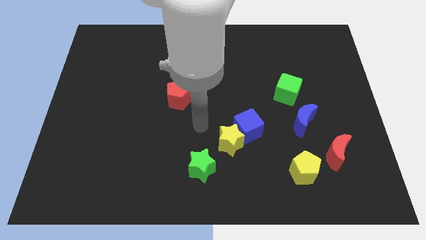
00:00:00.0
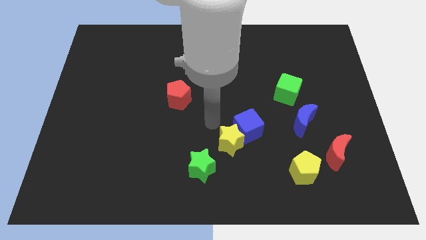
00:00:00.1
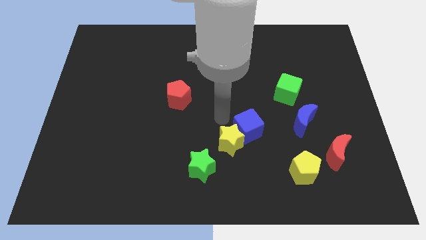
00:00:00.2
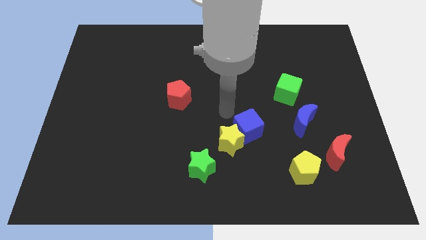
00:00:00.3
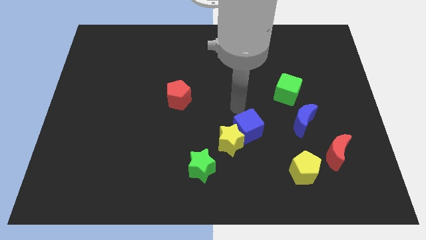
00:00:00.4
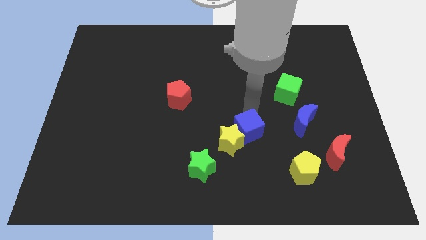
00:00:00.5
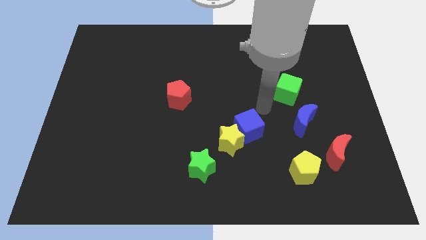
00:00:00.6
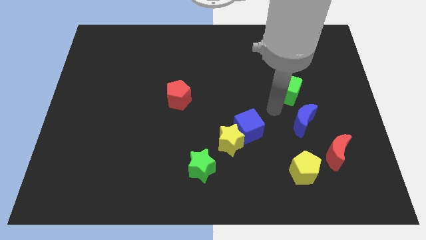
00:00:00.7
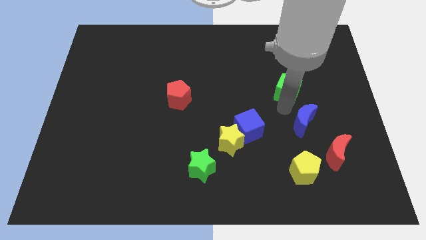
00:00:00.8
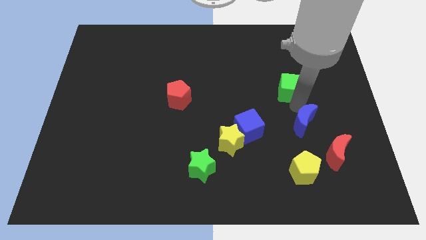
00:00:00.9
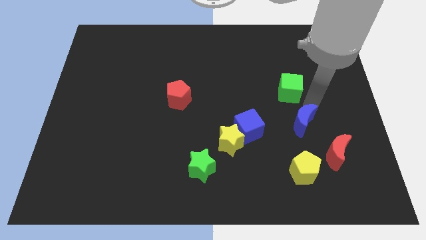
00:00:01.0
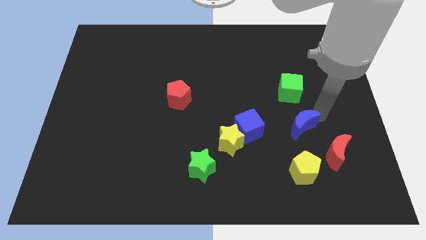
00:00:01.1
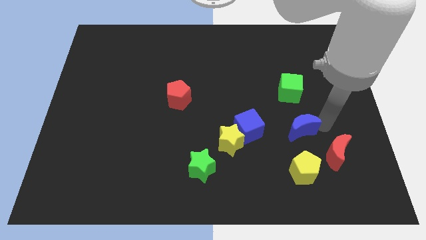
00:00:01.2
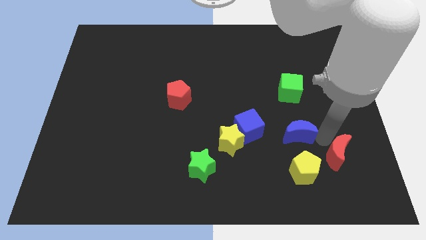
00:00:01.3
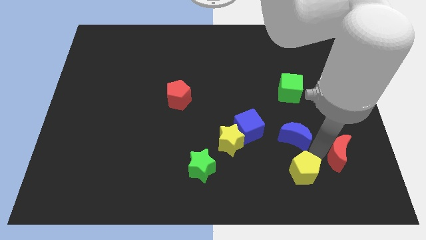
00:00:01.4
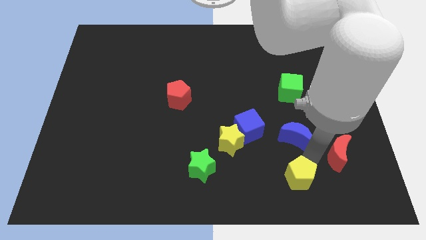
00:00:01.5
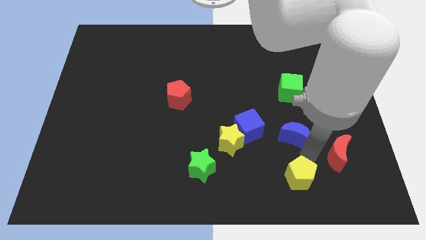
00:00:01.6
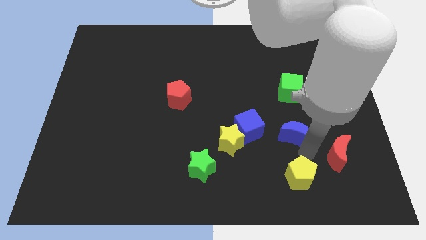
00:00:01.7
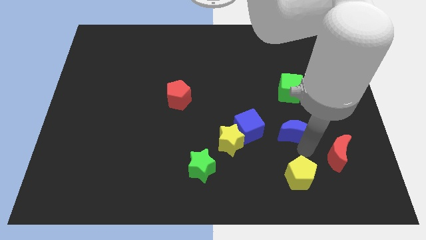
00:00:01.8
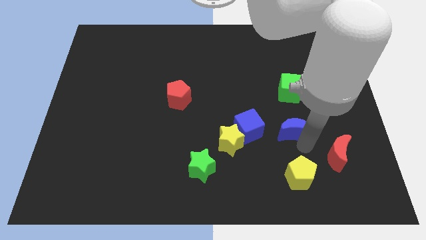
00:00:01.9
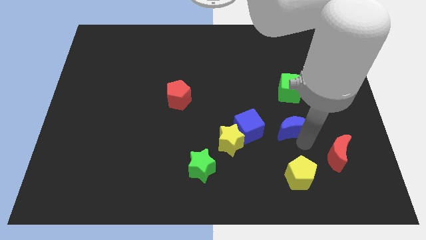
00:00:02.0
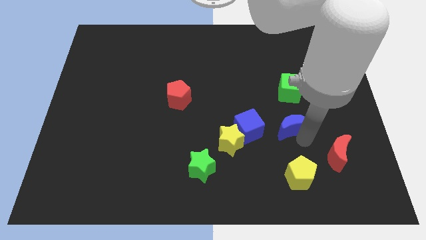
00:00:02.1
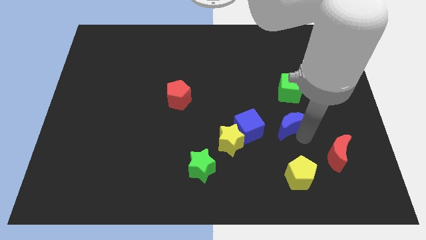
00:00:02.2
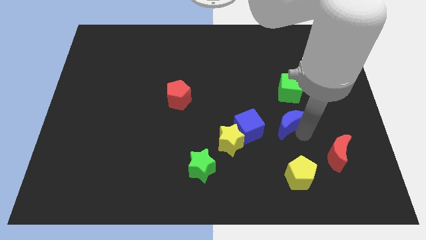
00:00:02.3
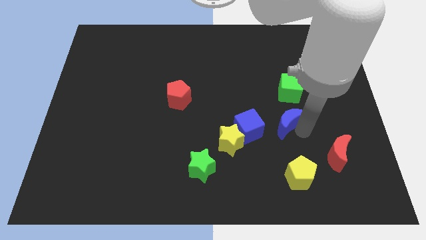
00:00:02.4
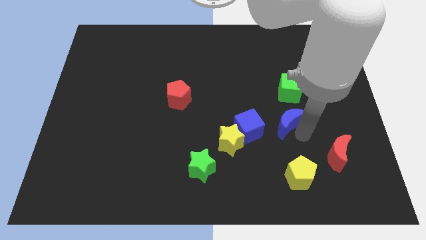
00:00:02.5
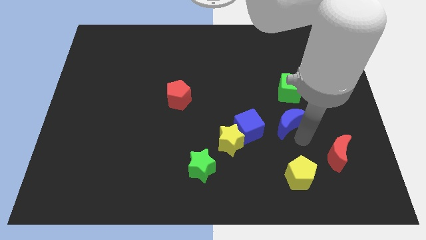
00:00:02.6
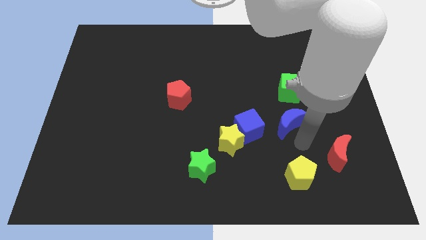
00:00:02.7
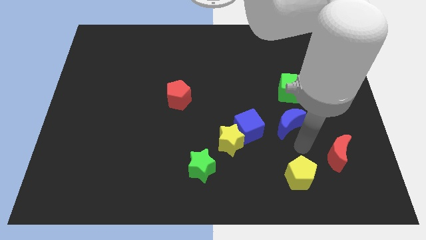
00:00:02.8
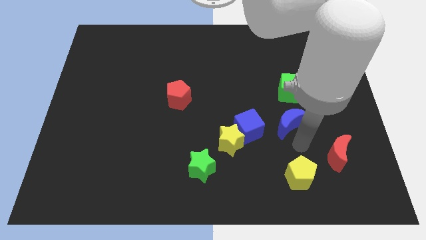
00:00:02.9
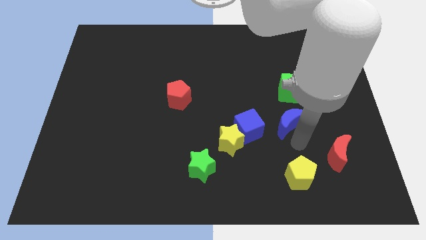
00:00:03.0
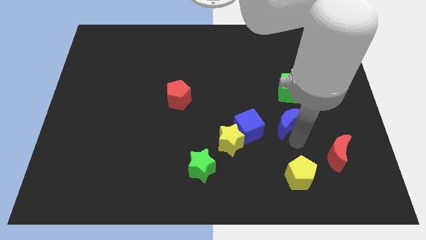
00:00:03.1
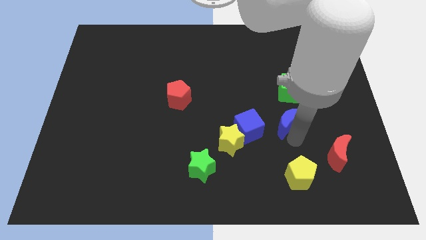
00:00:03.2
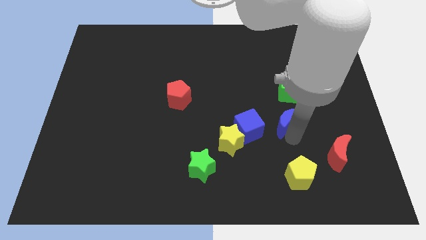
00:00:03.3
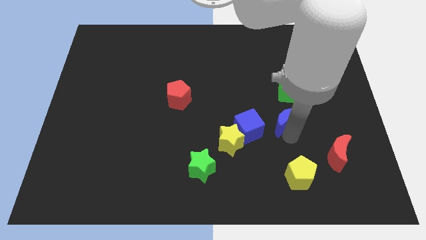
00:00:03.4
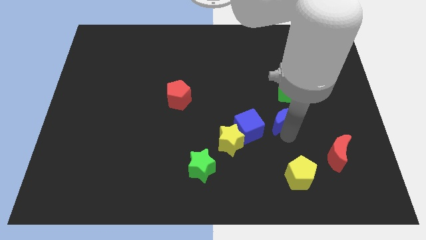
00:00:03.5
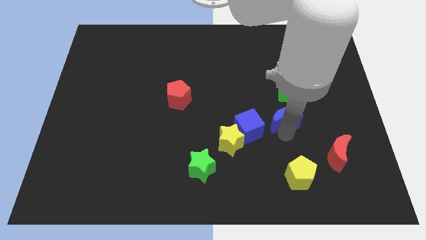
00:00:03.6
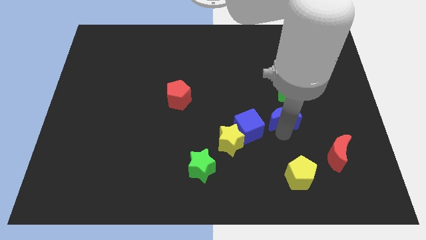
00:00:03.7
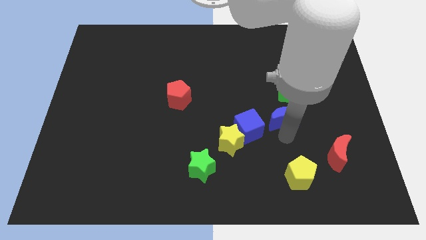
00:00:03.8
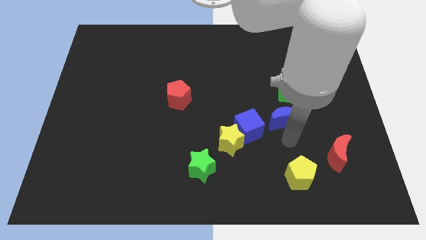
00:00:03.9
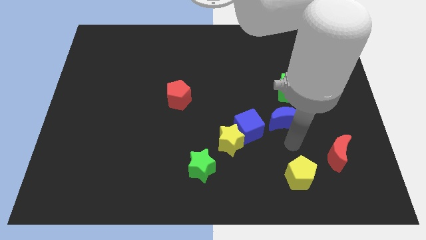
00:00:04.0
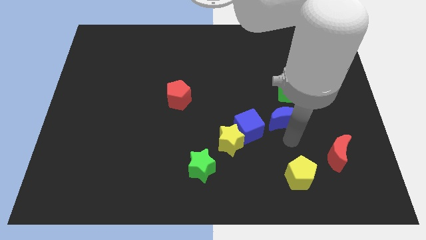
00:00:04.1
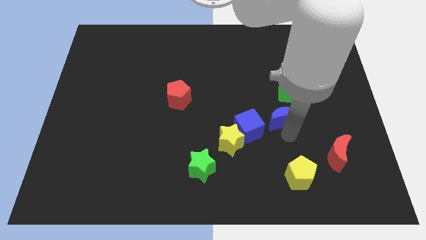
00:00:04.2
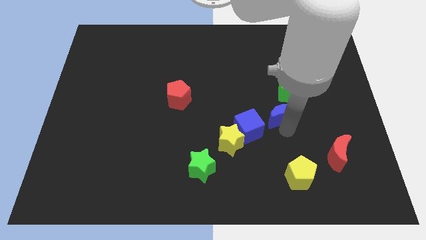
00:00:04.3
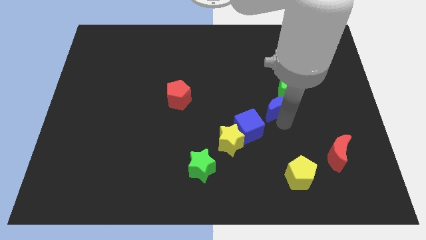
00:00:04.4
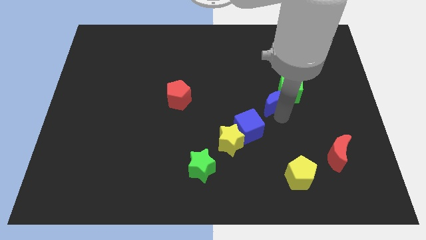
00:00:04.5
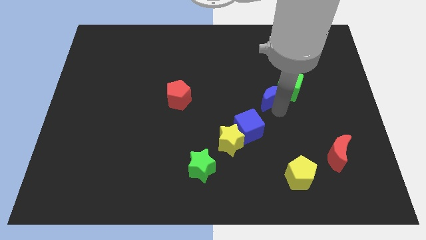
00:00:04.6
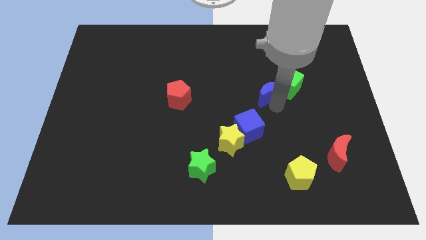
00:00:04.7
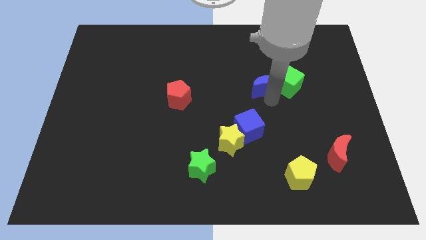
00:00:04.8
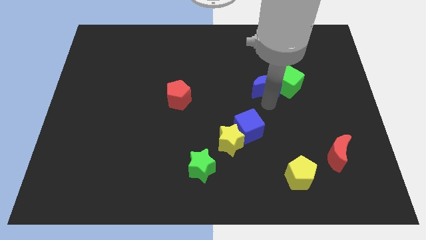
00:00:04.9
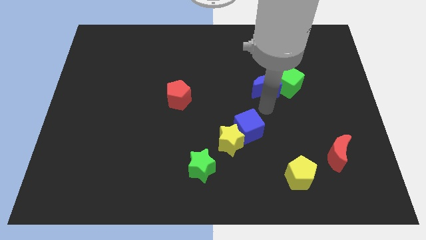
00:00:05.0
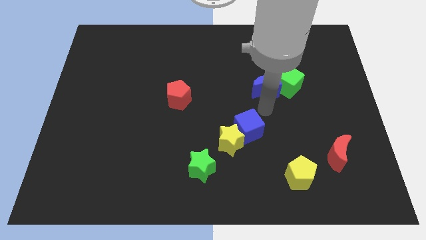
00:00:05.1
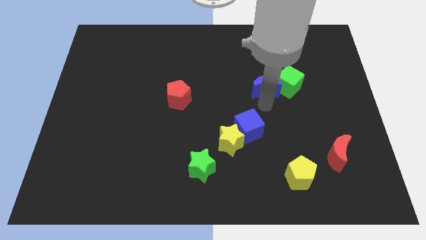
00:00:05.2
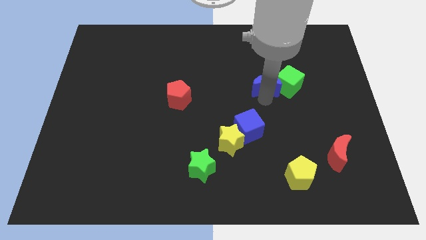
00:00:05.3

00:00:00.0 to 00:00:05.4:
put the blue moon to the top left of the green cube

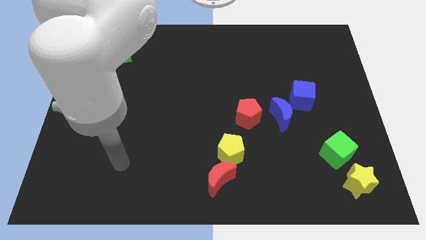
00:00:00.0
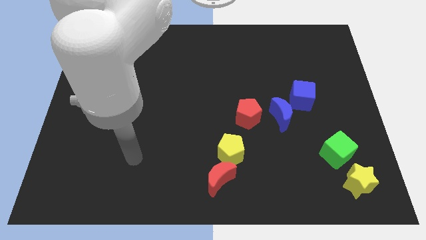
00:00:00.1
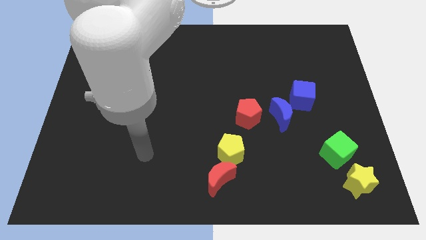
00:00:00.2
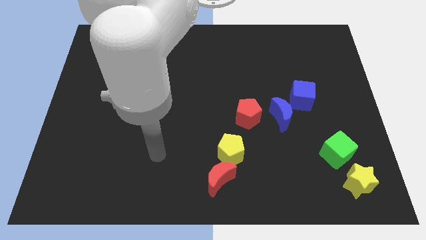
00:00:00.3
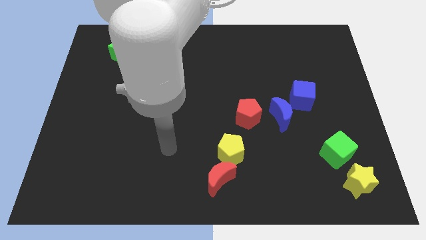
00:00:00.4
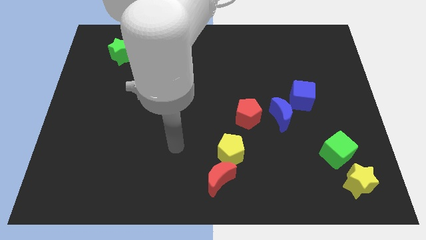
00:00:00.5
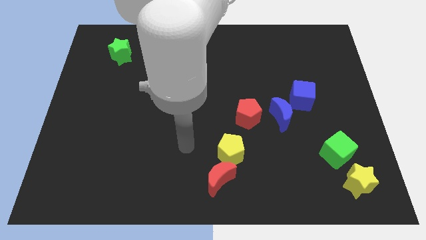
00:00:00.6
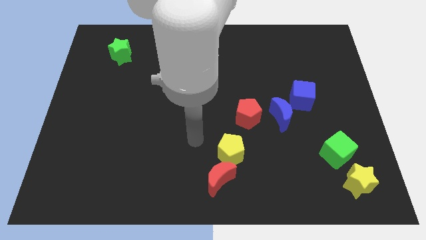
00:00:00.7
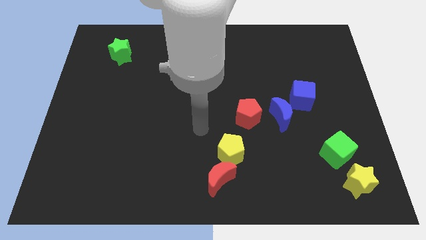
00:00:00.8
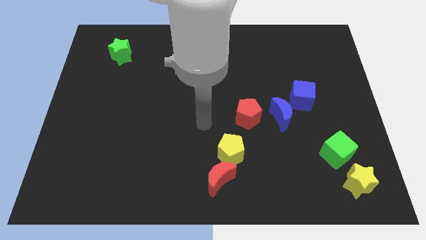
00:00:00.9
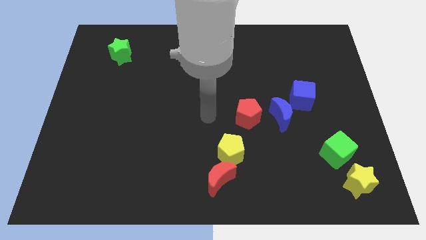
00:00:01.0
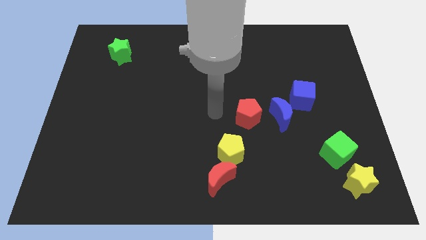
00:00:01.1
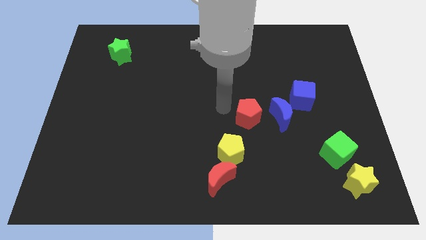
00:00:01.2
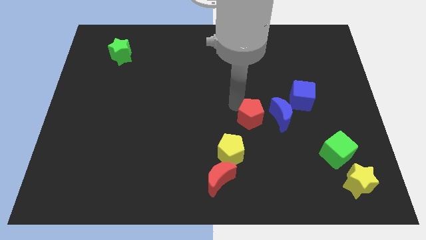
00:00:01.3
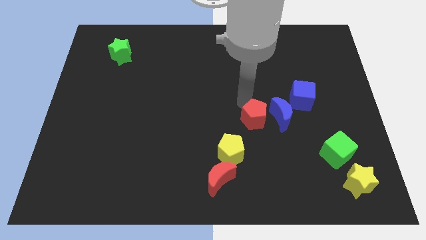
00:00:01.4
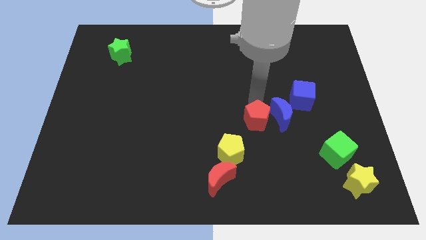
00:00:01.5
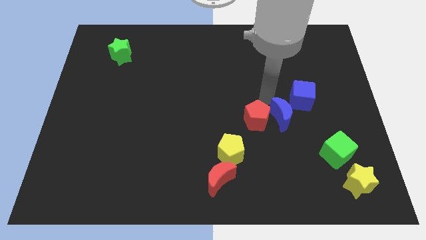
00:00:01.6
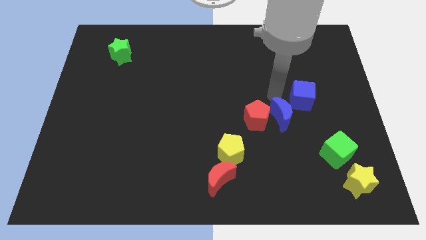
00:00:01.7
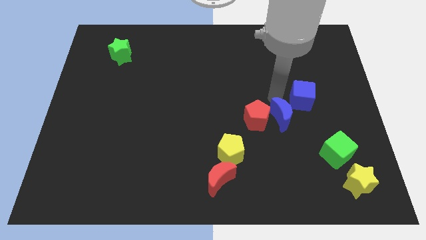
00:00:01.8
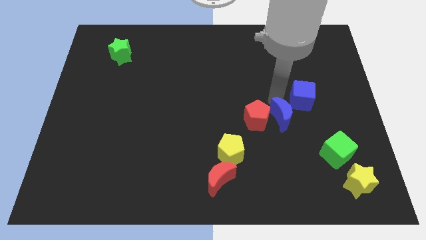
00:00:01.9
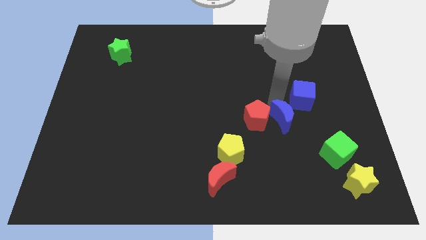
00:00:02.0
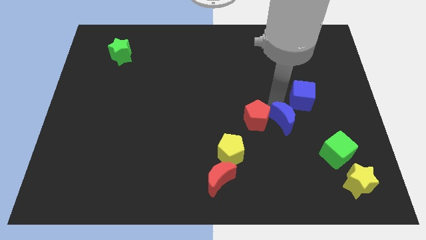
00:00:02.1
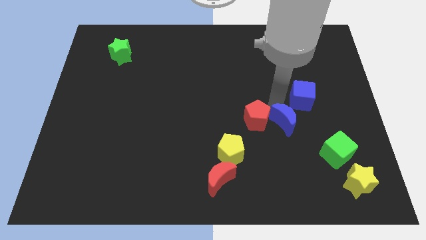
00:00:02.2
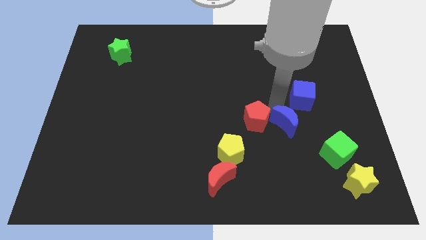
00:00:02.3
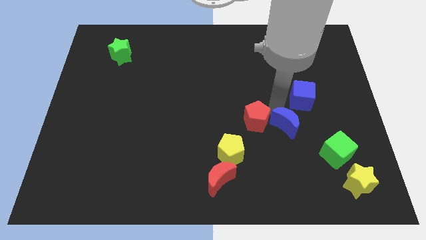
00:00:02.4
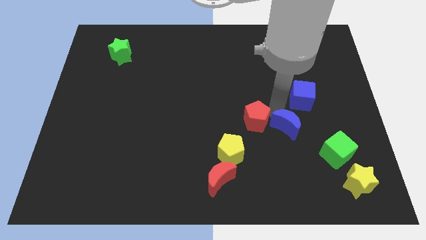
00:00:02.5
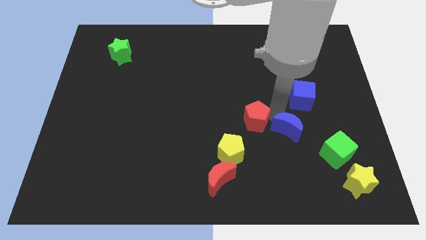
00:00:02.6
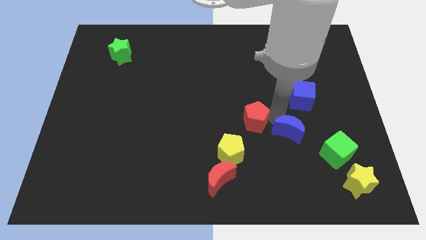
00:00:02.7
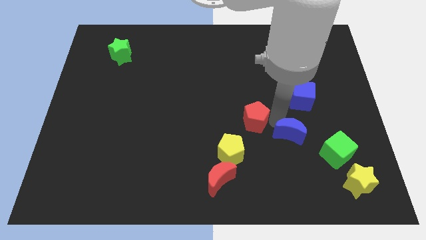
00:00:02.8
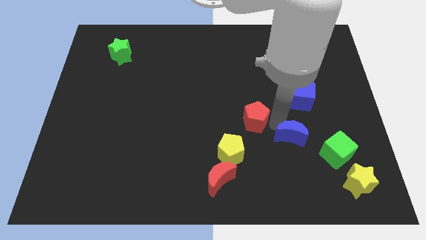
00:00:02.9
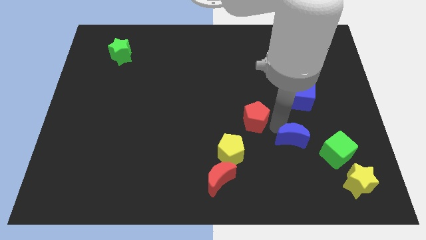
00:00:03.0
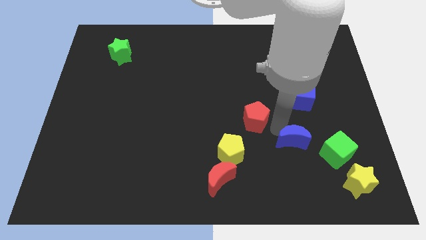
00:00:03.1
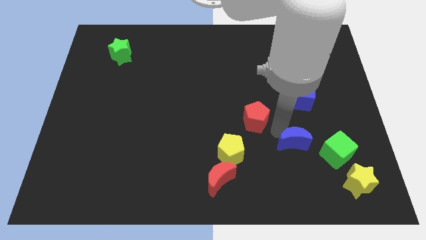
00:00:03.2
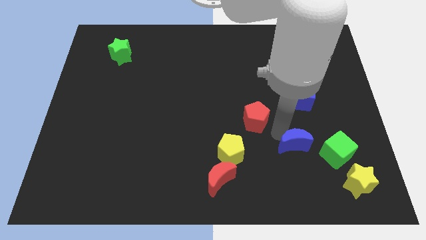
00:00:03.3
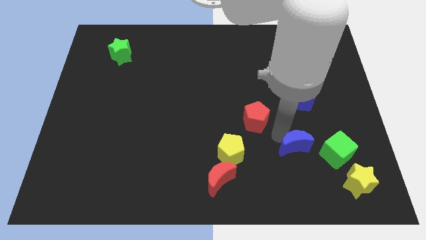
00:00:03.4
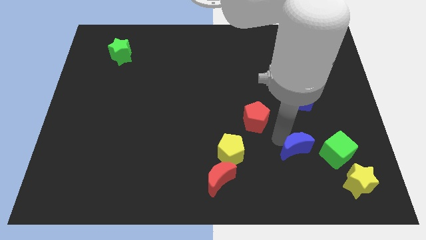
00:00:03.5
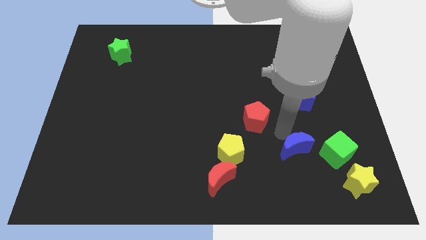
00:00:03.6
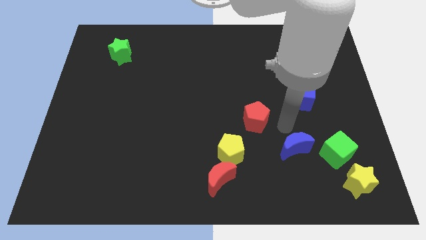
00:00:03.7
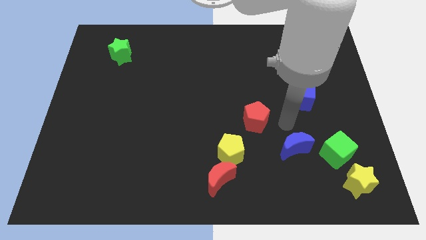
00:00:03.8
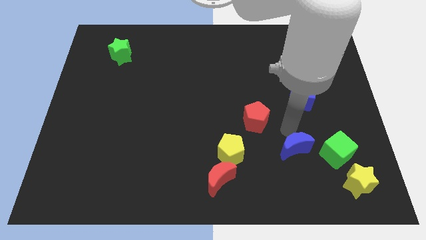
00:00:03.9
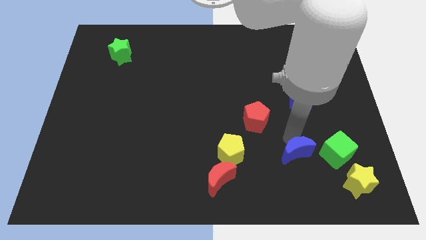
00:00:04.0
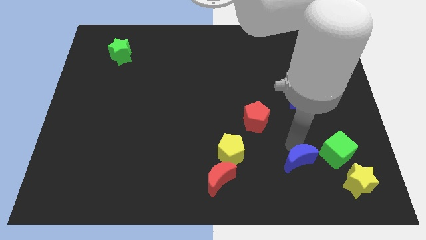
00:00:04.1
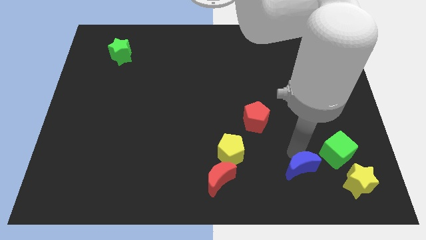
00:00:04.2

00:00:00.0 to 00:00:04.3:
push the blue moon to the left side of the yellow star
